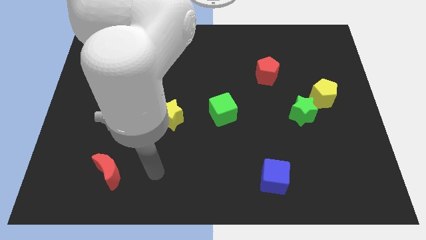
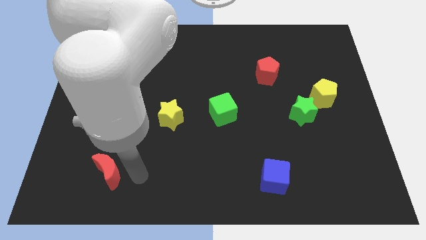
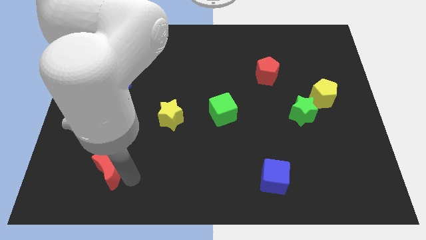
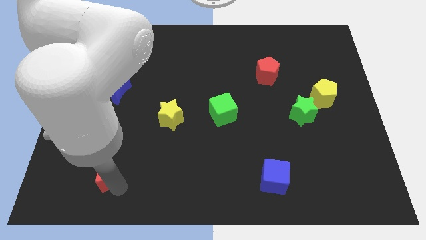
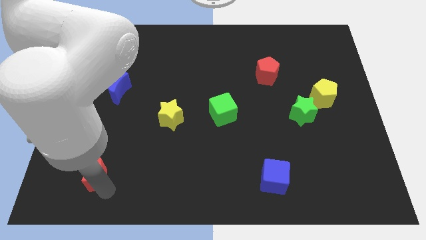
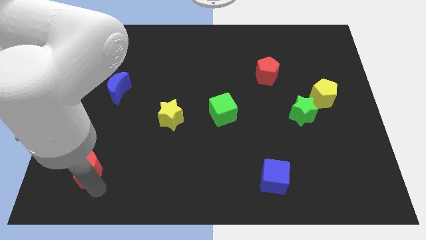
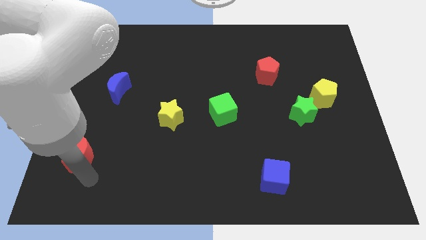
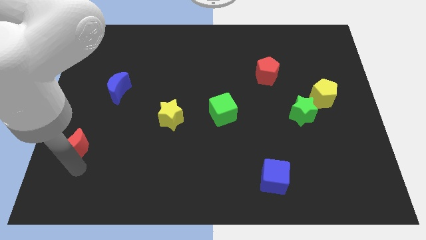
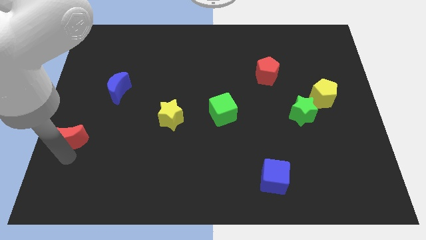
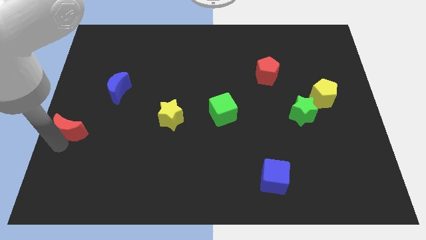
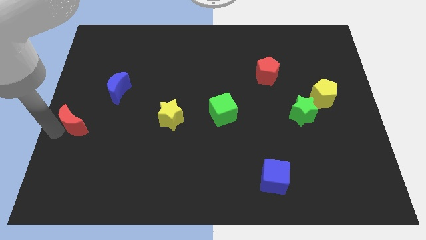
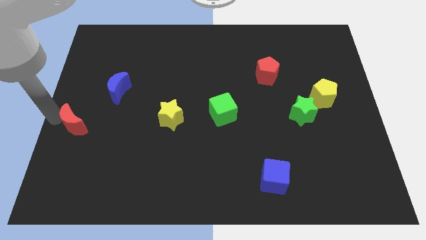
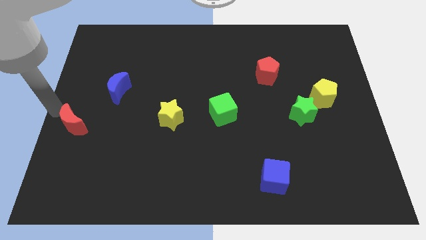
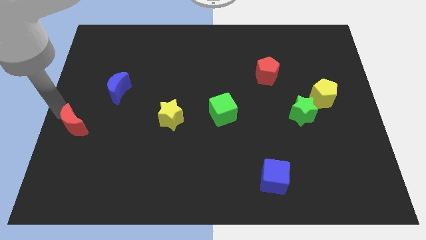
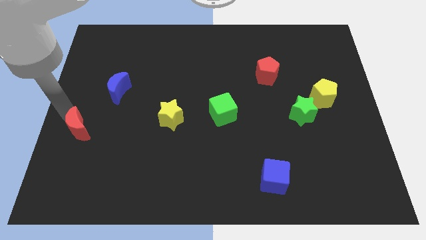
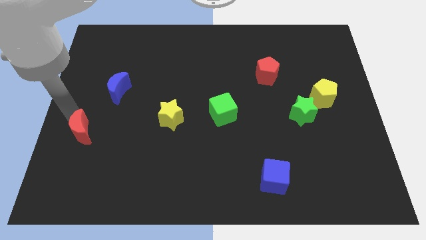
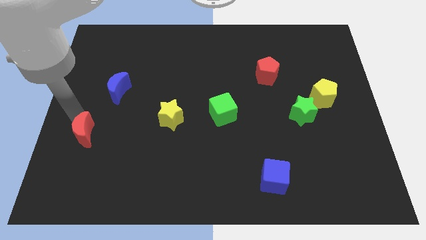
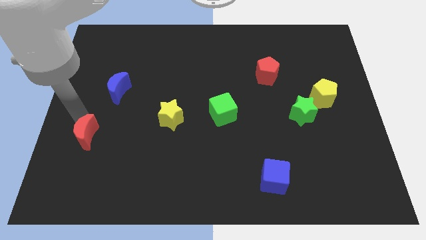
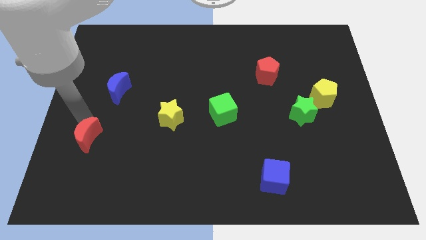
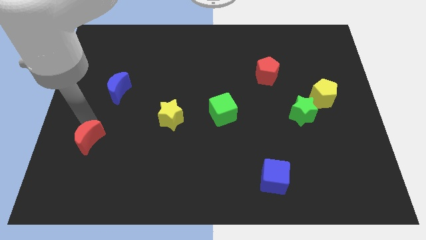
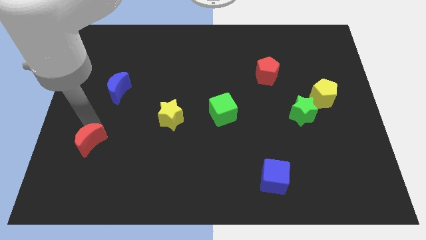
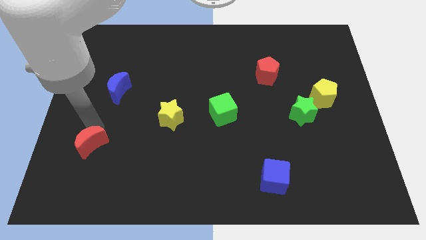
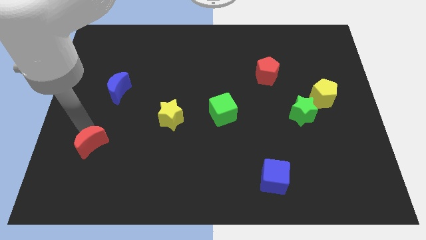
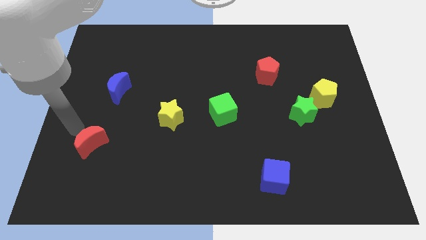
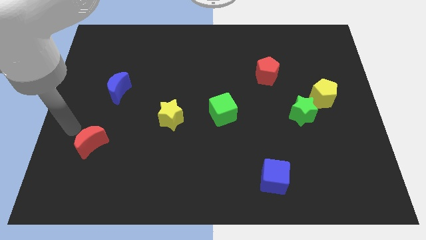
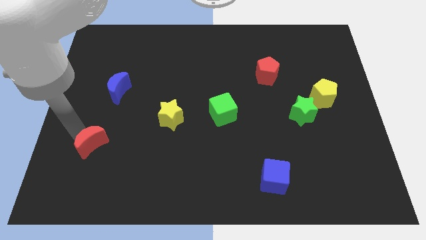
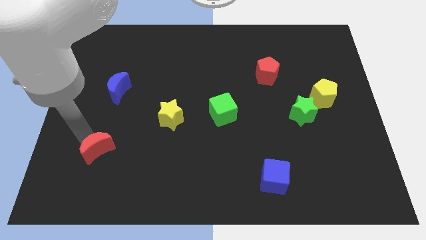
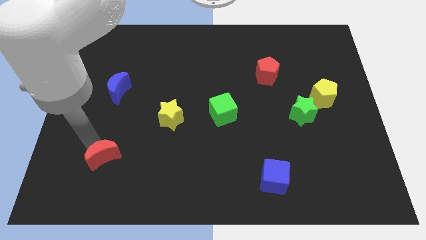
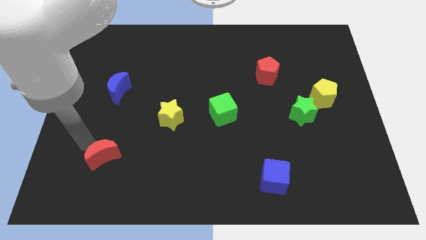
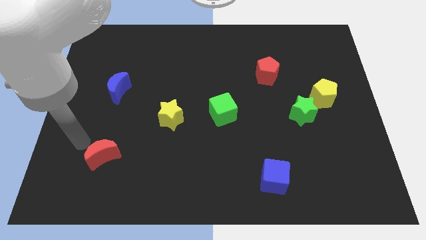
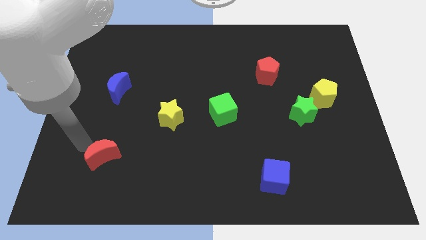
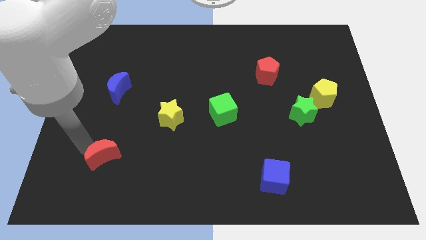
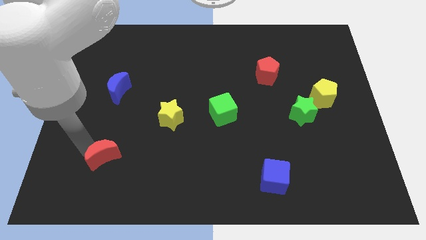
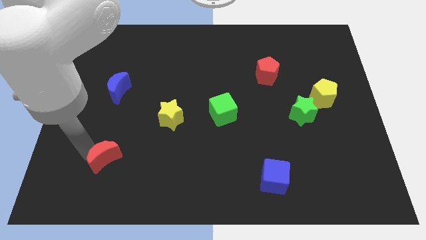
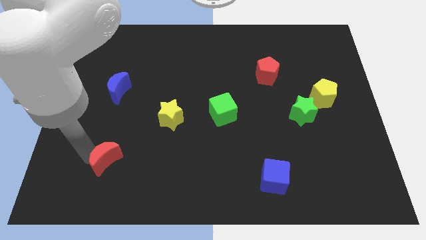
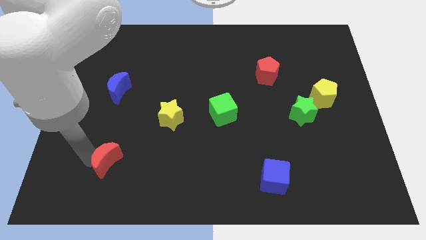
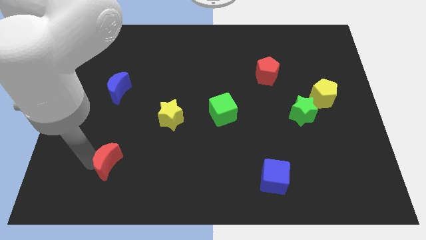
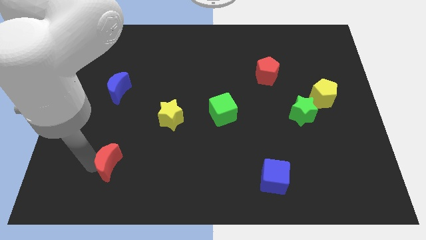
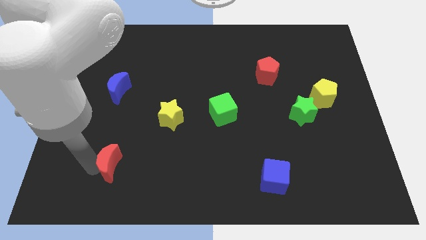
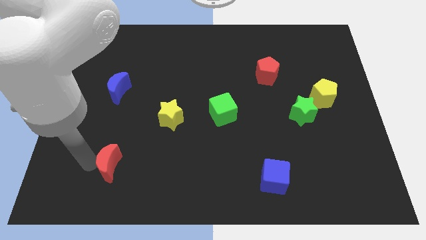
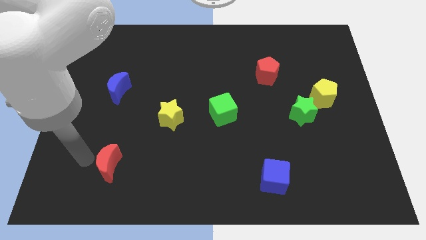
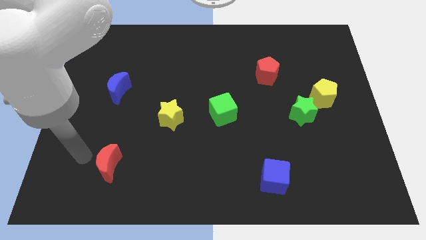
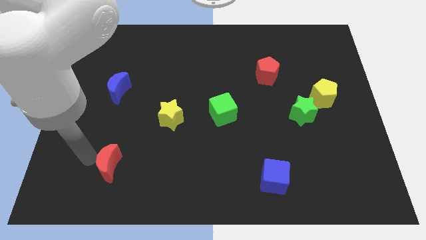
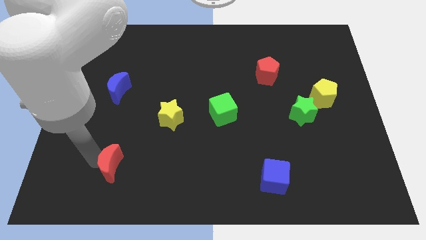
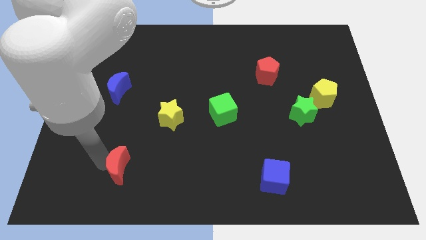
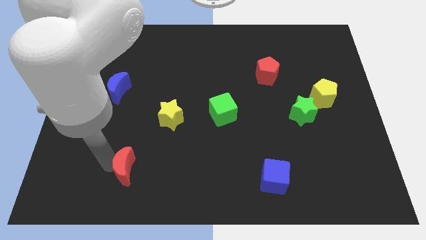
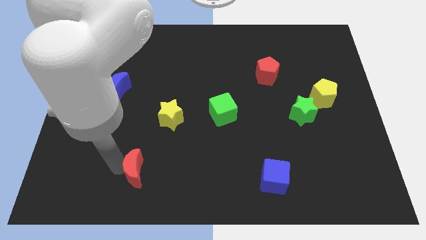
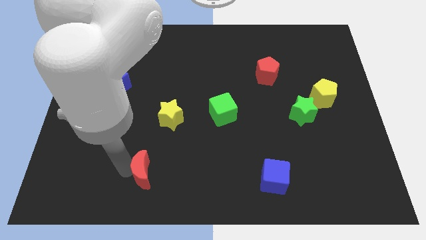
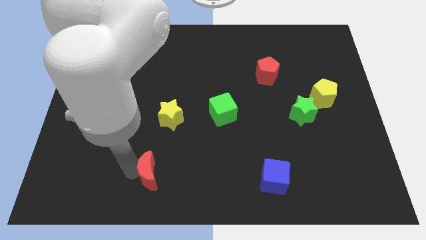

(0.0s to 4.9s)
push the red moon a bit to the right

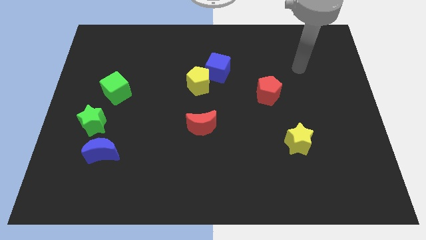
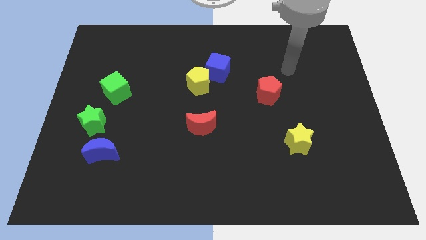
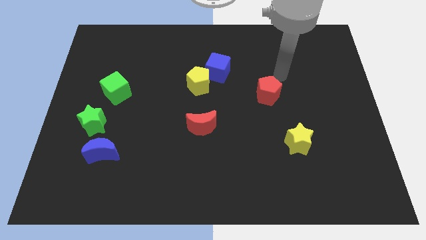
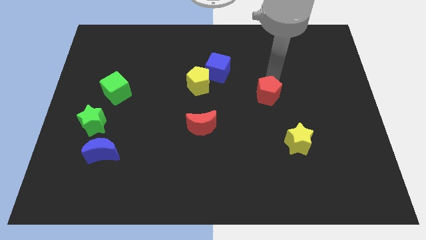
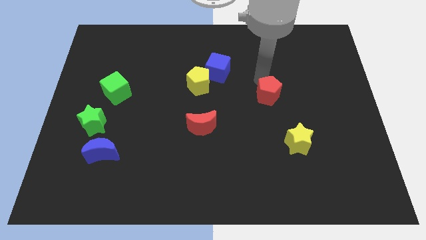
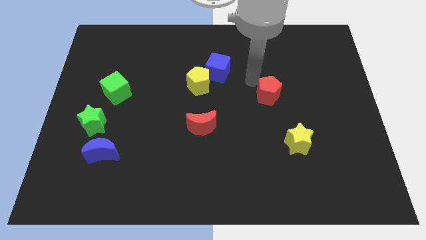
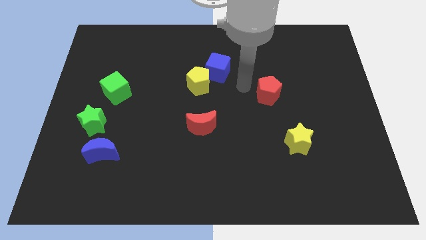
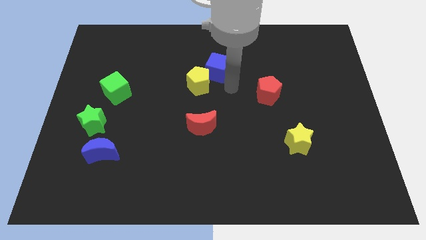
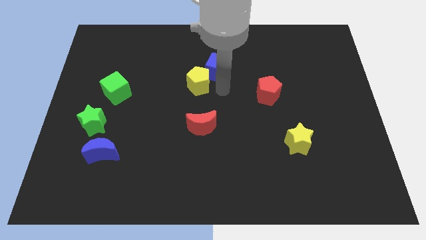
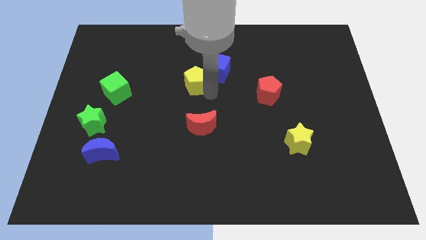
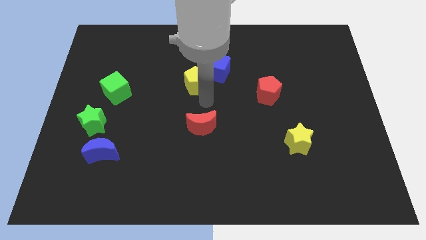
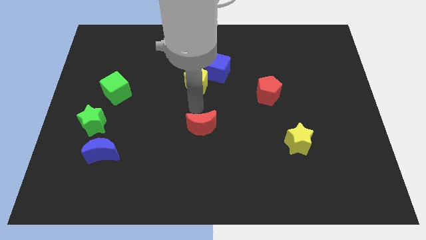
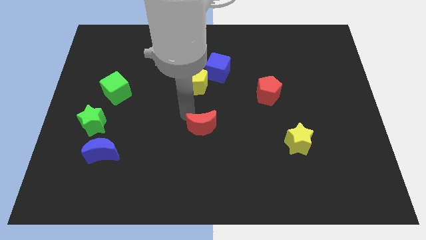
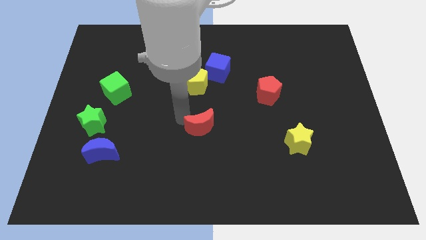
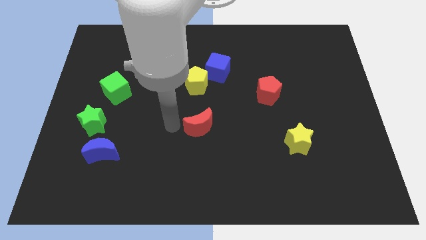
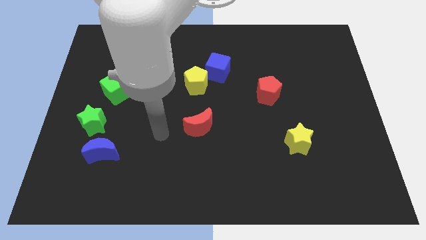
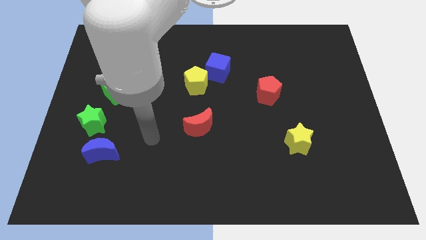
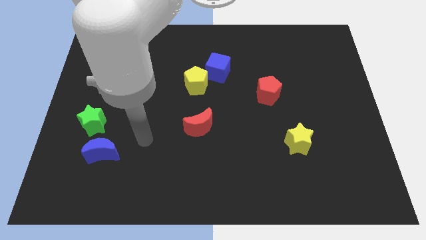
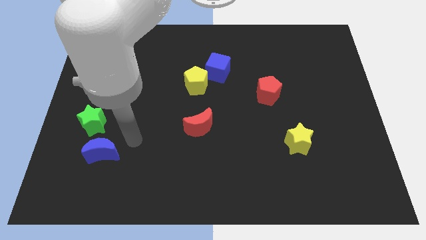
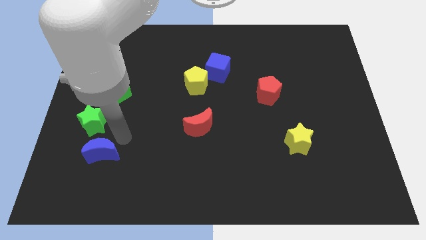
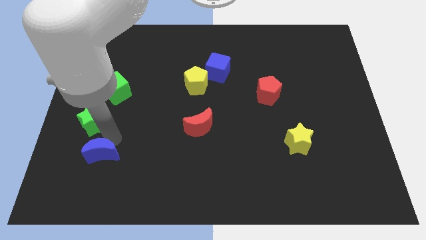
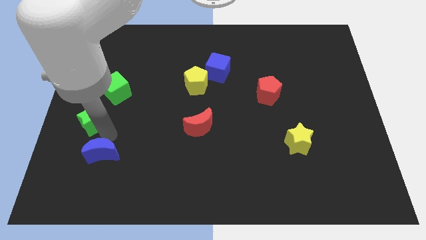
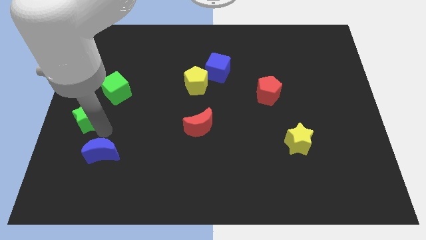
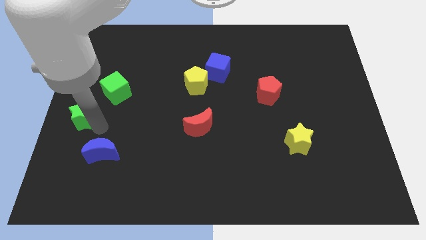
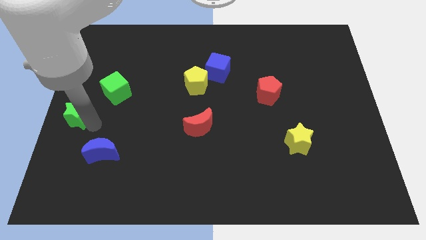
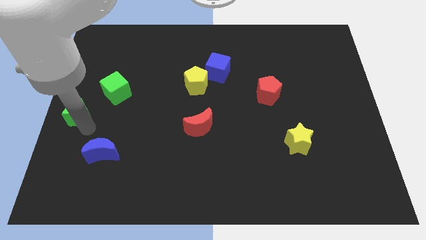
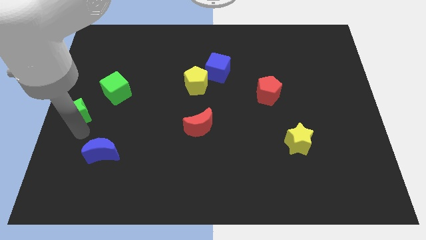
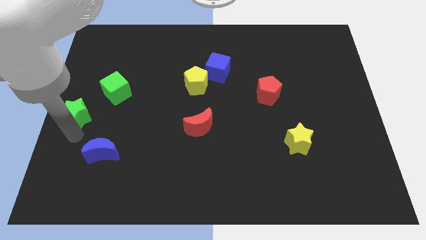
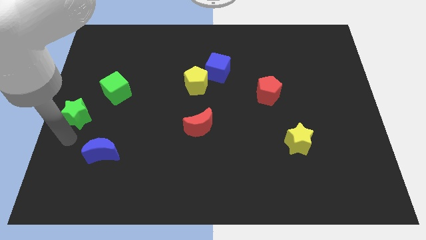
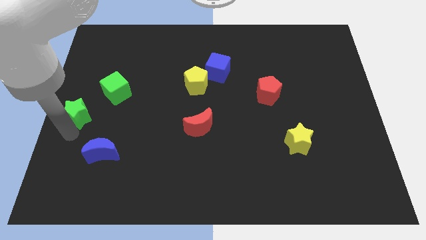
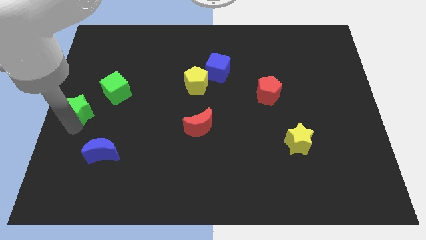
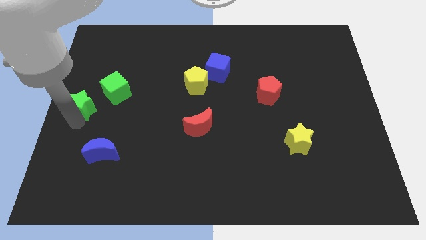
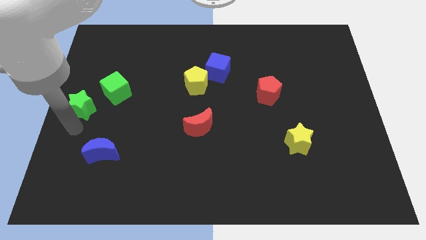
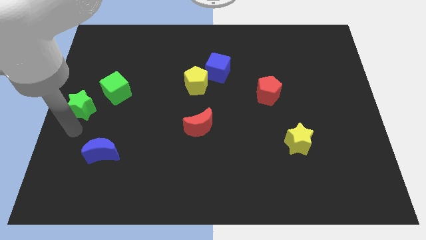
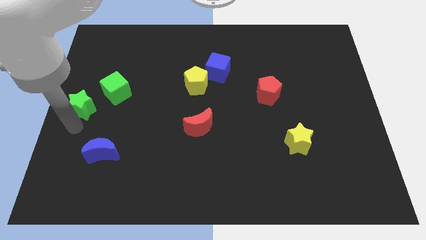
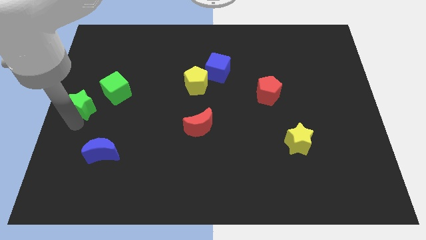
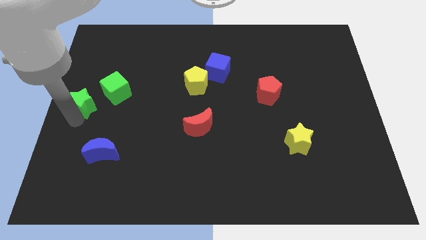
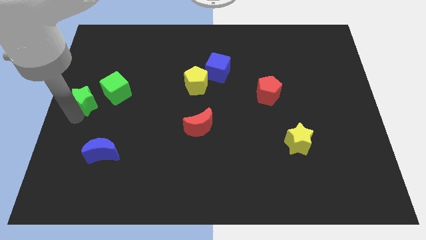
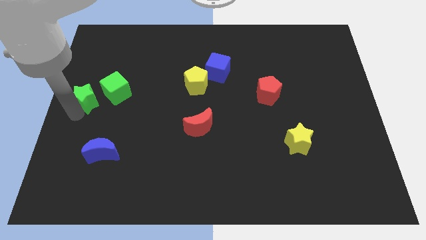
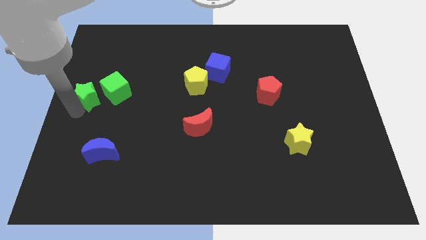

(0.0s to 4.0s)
slightly move the green star up
